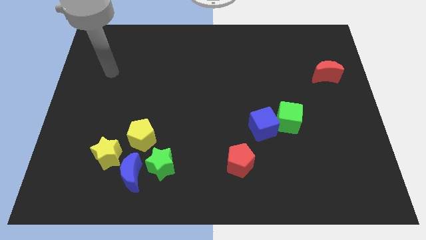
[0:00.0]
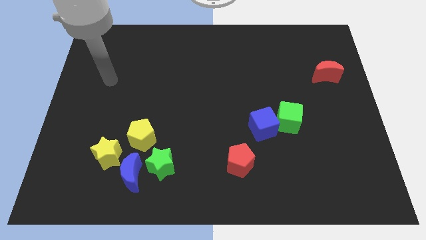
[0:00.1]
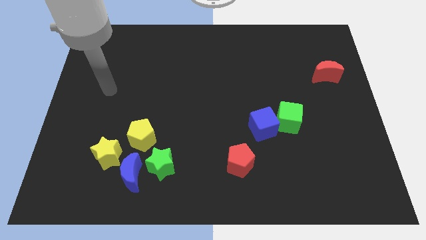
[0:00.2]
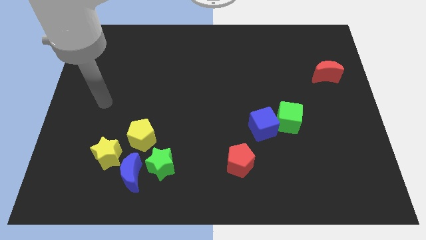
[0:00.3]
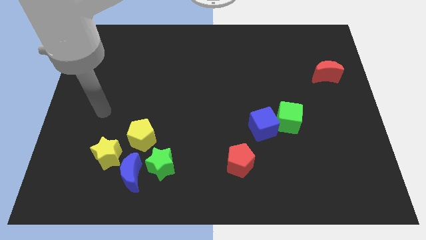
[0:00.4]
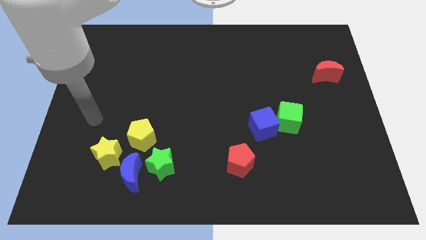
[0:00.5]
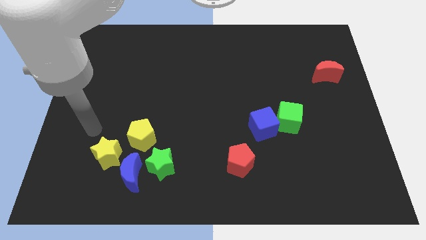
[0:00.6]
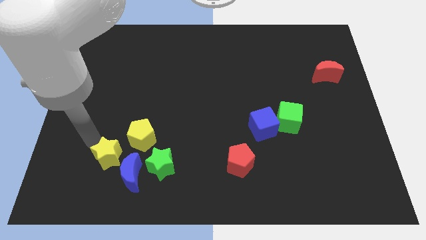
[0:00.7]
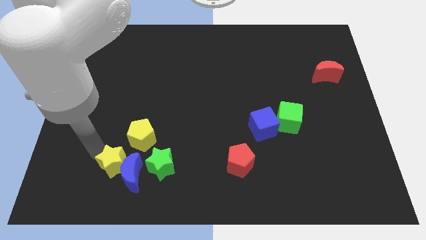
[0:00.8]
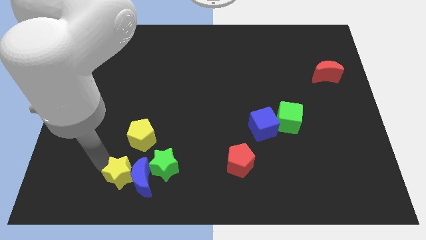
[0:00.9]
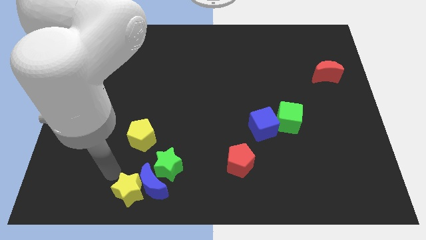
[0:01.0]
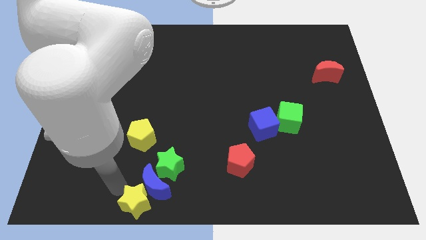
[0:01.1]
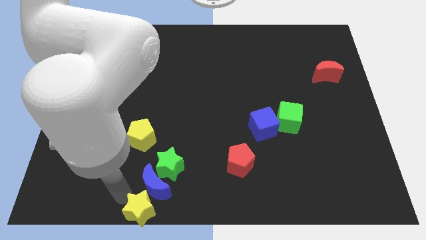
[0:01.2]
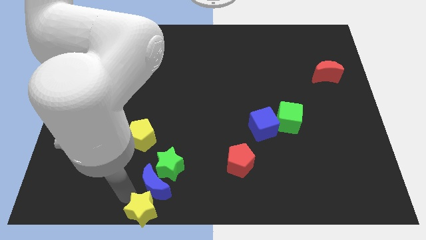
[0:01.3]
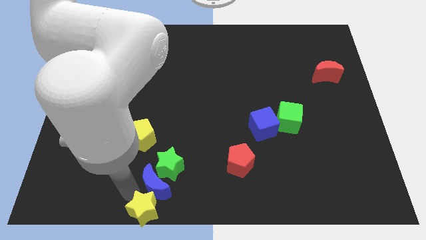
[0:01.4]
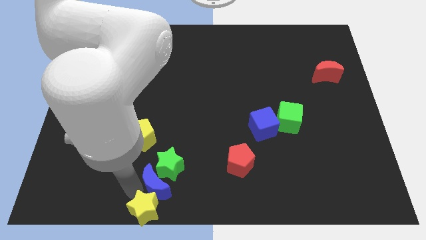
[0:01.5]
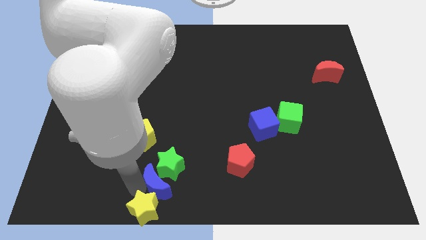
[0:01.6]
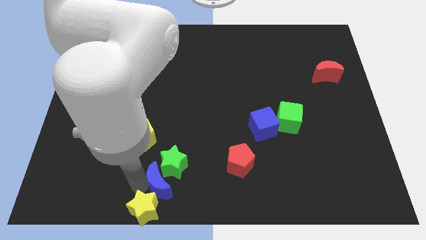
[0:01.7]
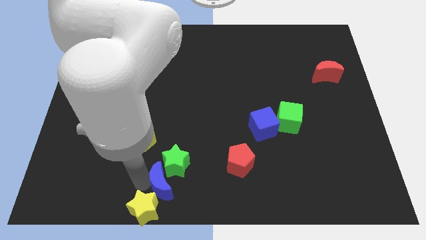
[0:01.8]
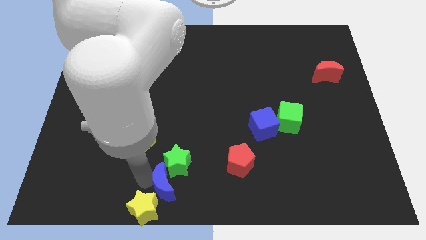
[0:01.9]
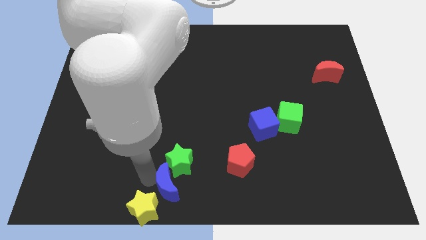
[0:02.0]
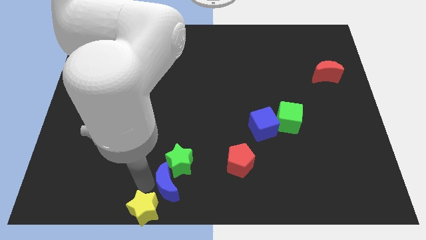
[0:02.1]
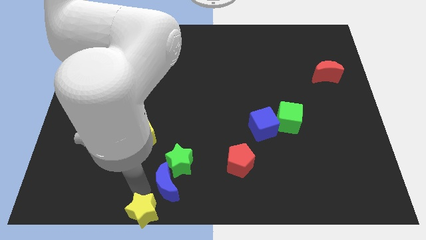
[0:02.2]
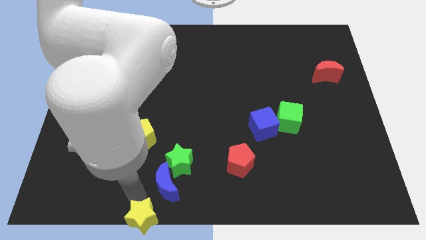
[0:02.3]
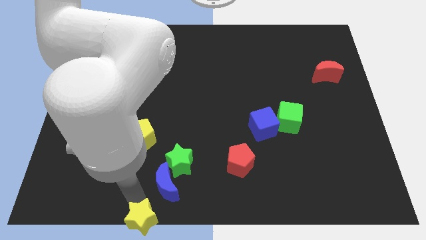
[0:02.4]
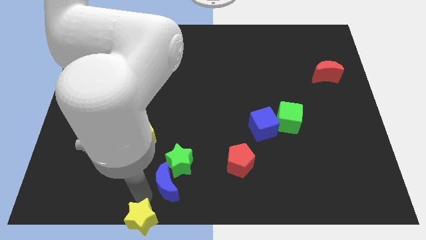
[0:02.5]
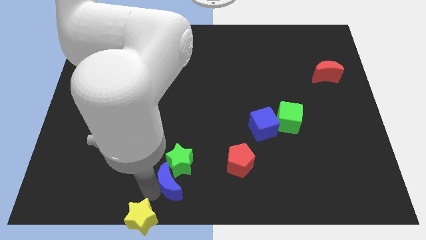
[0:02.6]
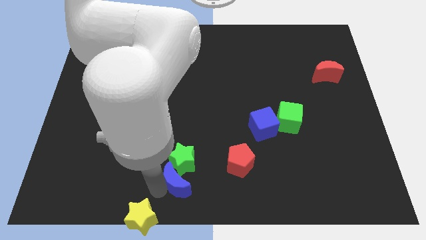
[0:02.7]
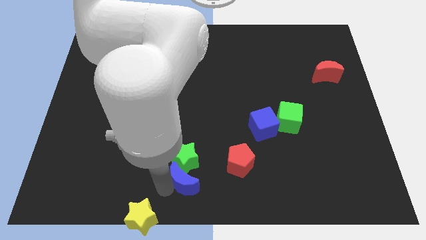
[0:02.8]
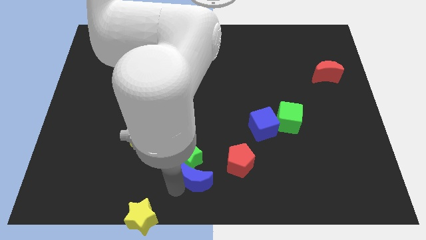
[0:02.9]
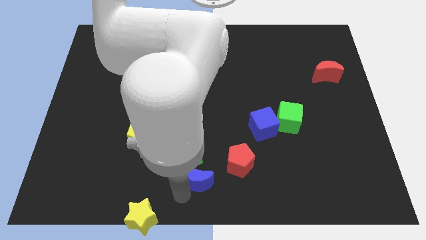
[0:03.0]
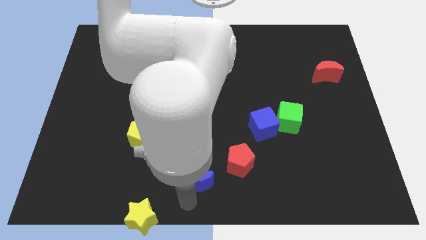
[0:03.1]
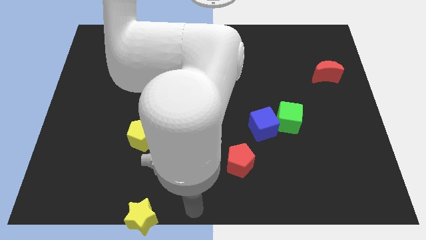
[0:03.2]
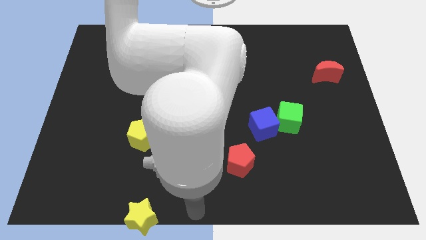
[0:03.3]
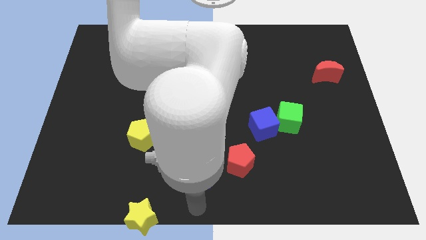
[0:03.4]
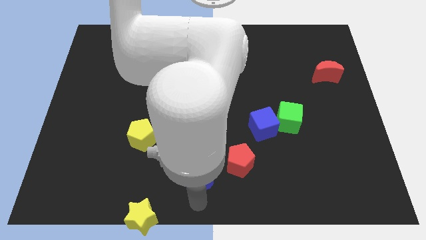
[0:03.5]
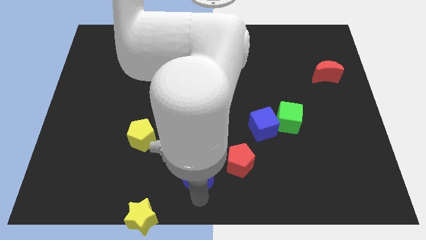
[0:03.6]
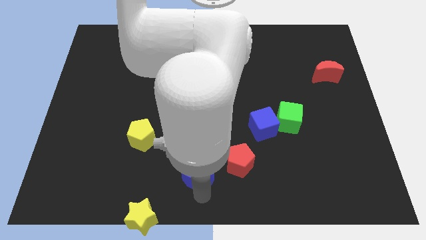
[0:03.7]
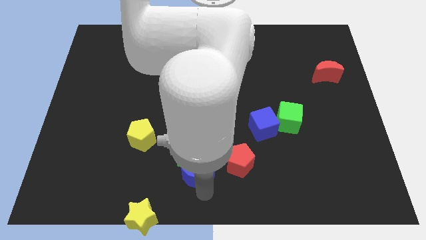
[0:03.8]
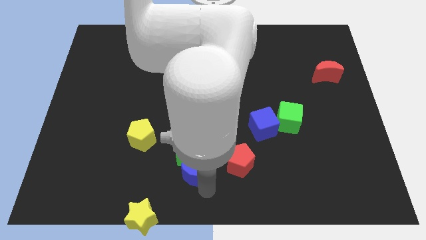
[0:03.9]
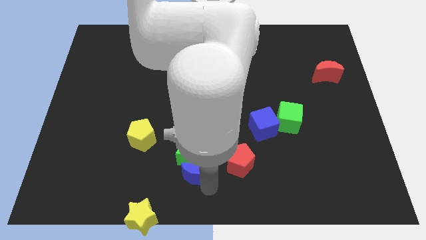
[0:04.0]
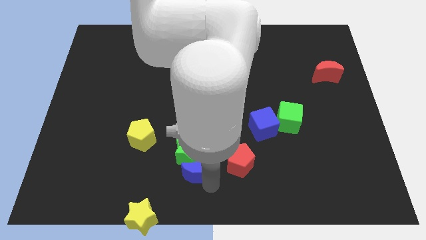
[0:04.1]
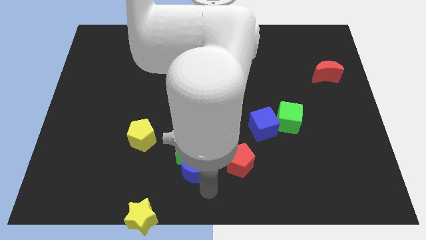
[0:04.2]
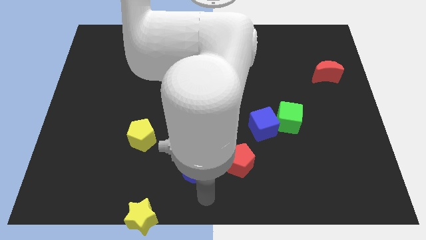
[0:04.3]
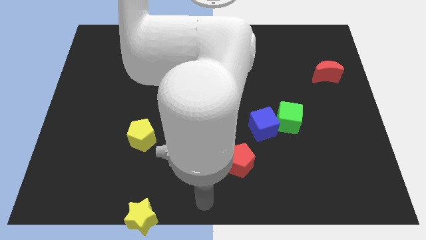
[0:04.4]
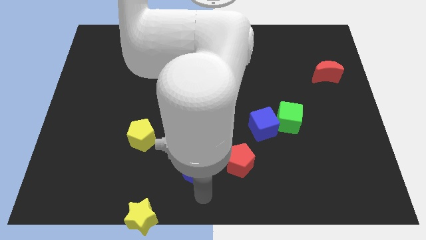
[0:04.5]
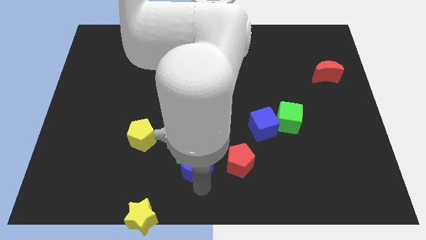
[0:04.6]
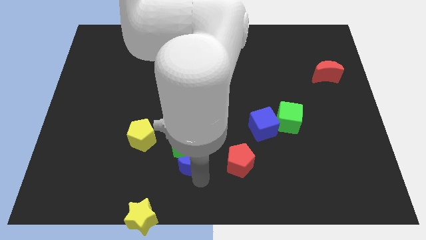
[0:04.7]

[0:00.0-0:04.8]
slide the blue moon a little bit diagonally upwards and to the right

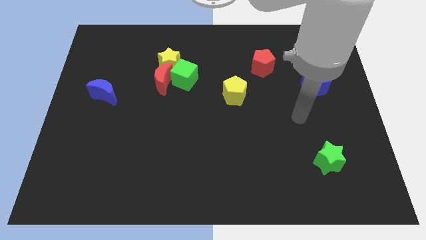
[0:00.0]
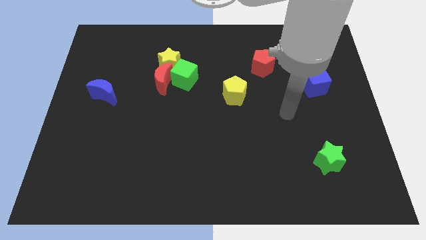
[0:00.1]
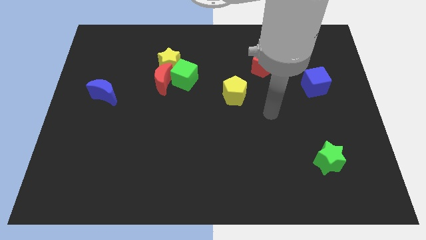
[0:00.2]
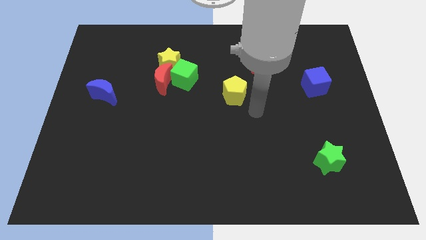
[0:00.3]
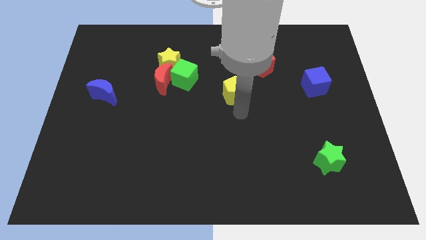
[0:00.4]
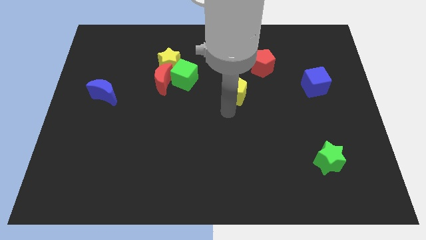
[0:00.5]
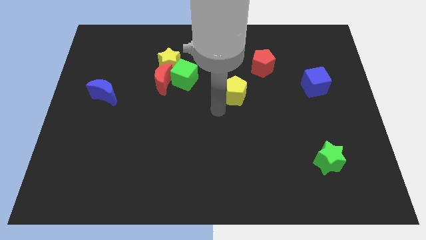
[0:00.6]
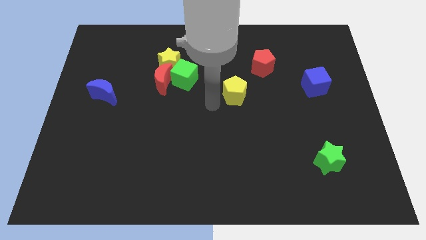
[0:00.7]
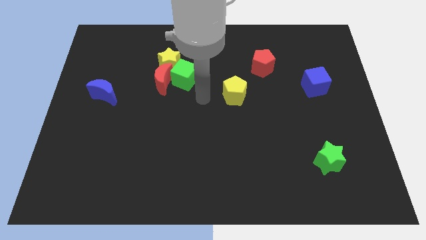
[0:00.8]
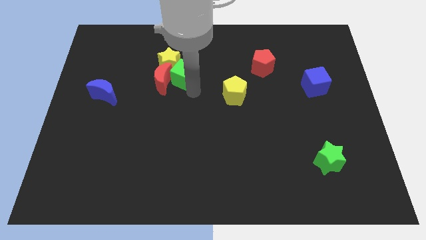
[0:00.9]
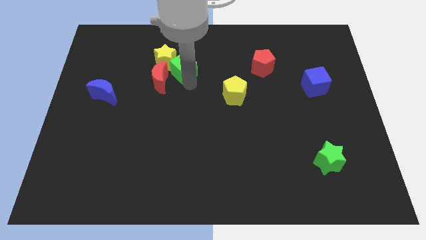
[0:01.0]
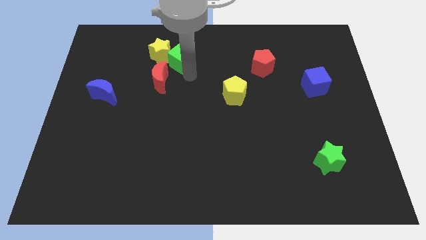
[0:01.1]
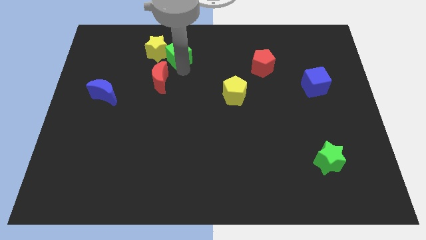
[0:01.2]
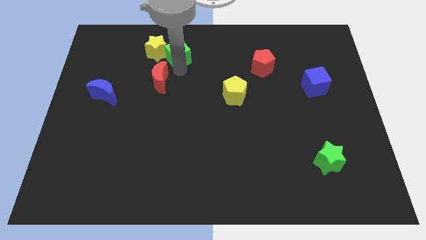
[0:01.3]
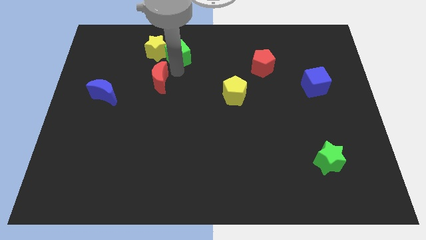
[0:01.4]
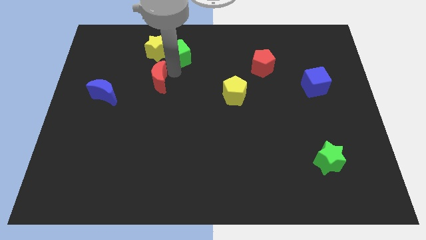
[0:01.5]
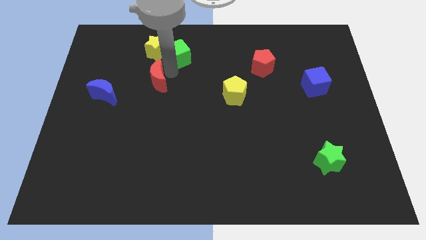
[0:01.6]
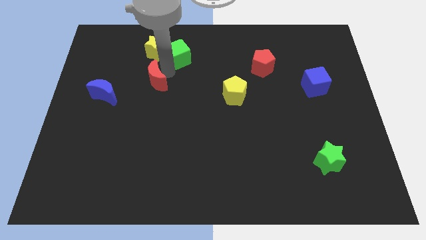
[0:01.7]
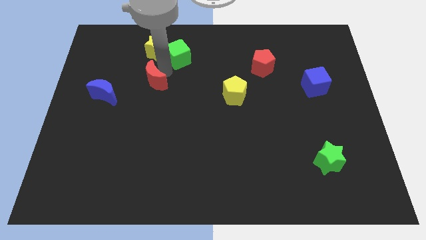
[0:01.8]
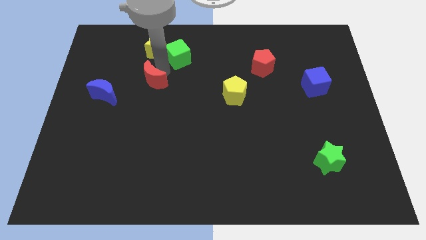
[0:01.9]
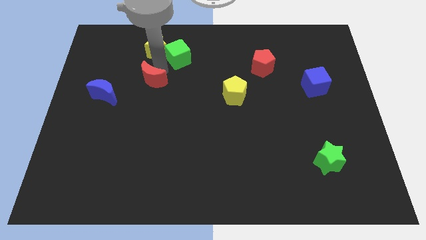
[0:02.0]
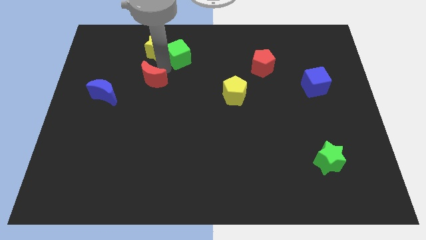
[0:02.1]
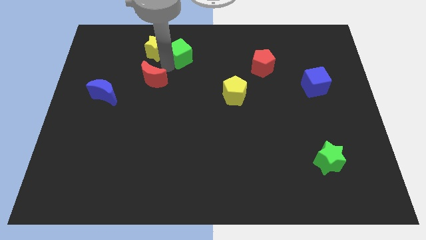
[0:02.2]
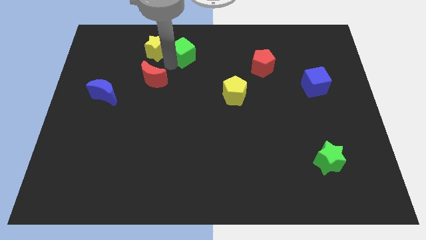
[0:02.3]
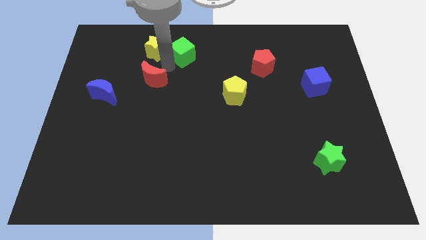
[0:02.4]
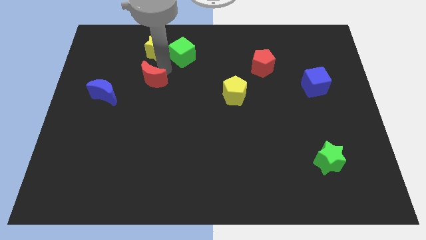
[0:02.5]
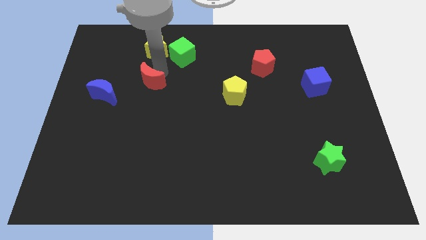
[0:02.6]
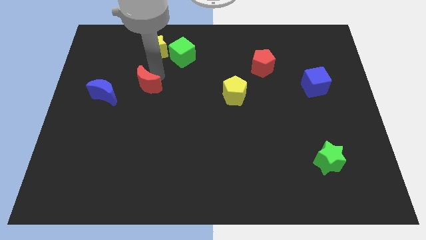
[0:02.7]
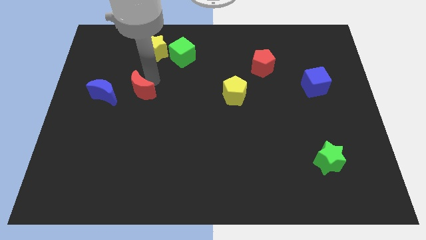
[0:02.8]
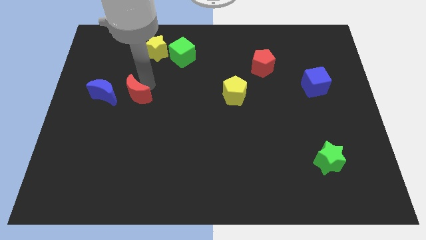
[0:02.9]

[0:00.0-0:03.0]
push the red moon slightly down and left

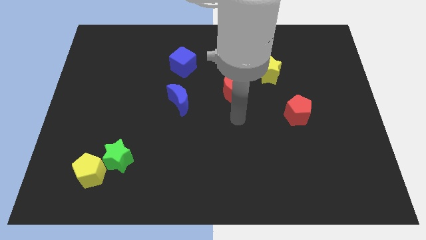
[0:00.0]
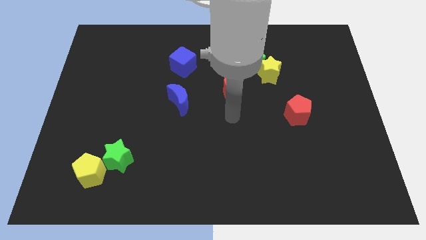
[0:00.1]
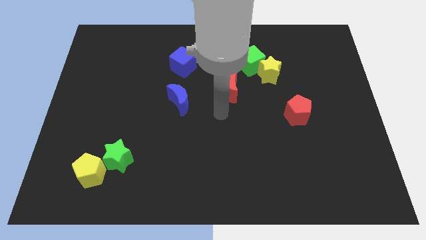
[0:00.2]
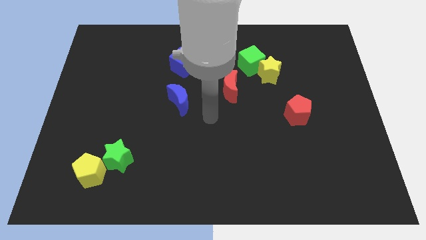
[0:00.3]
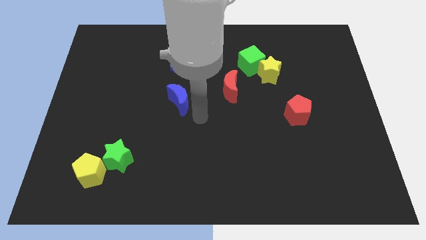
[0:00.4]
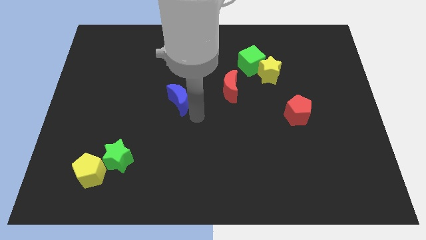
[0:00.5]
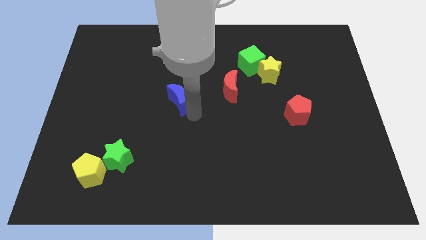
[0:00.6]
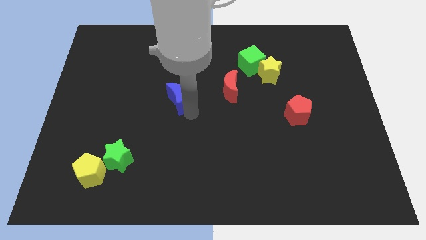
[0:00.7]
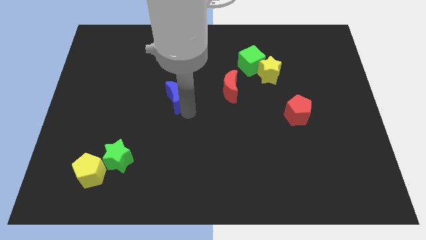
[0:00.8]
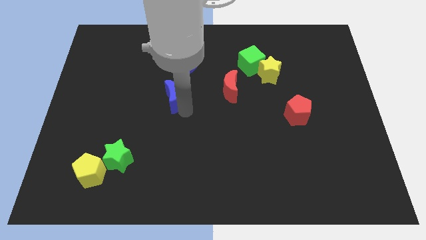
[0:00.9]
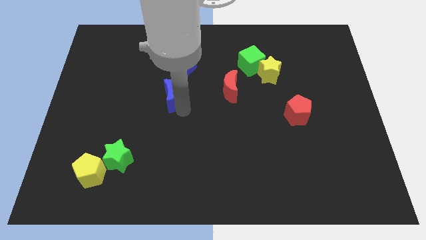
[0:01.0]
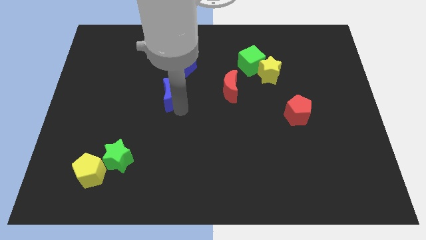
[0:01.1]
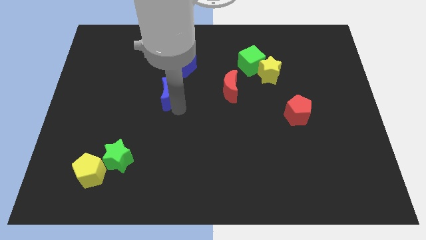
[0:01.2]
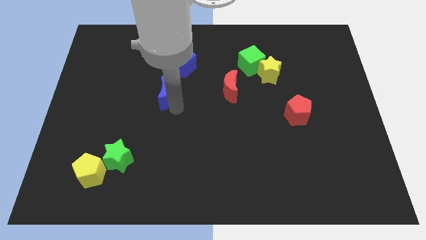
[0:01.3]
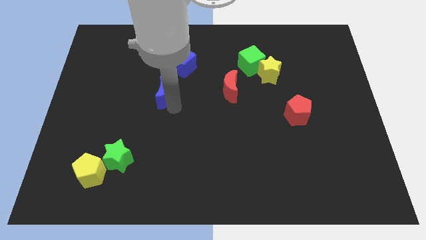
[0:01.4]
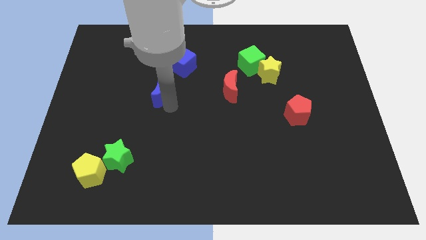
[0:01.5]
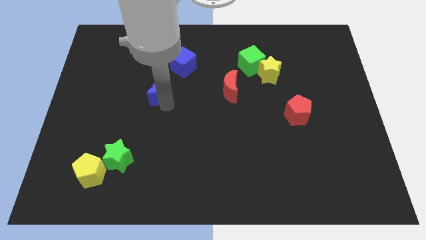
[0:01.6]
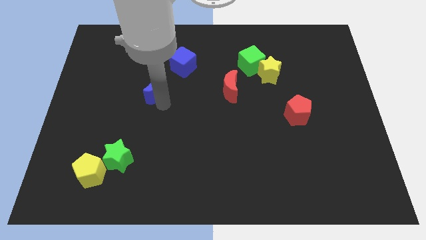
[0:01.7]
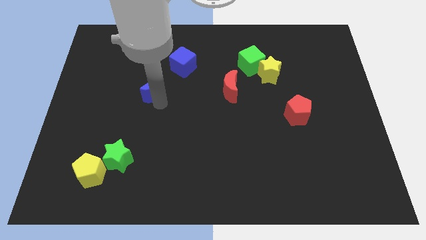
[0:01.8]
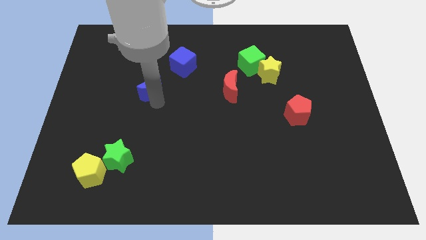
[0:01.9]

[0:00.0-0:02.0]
slightly slide the blue moon diagonally upwards and left
